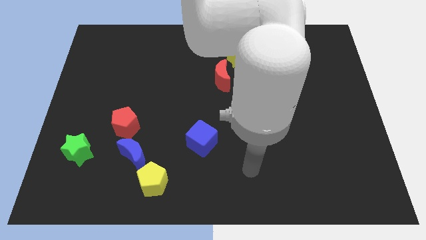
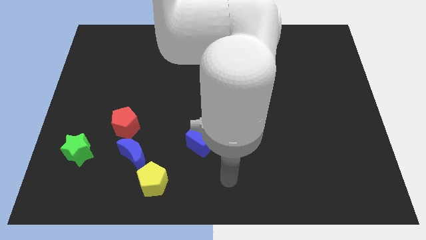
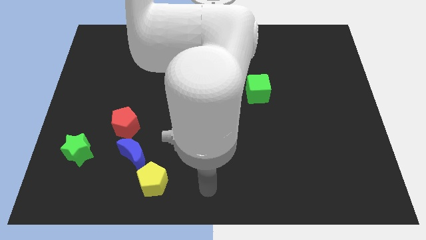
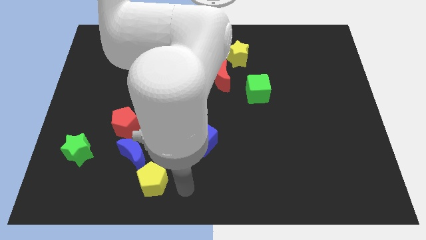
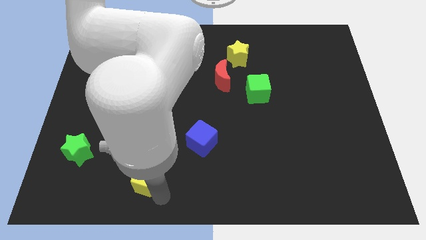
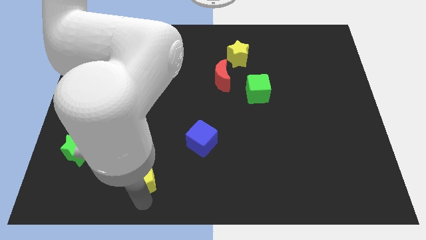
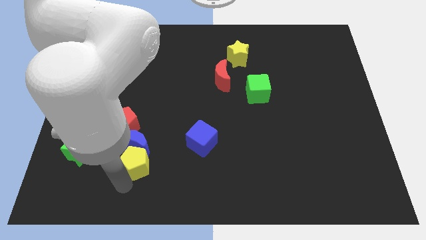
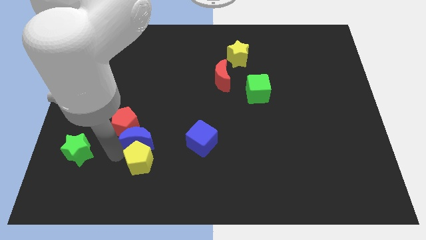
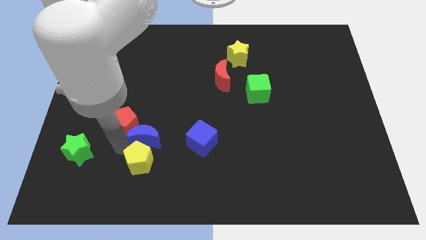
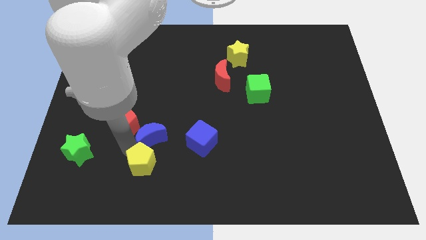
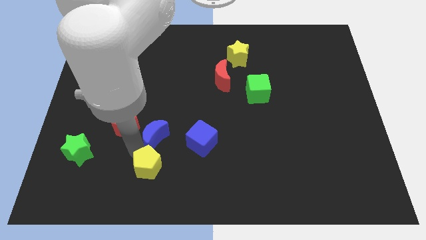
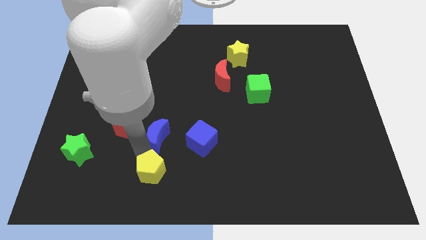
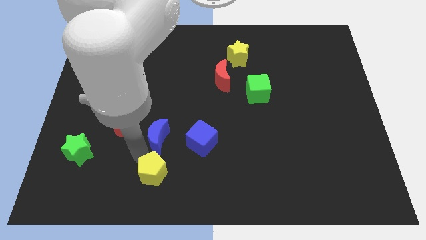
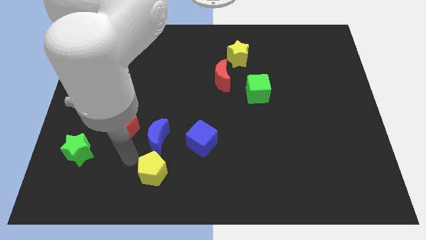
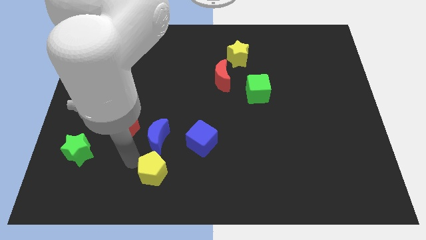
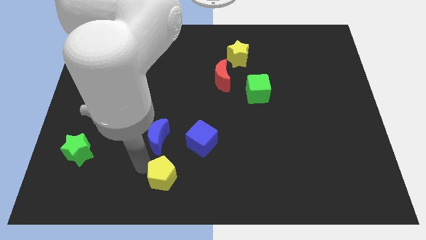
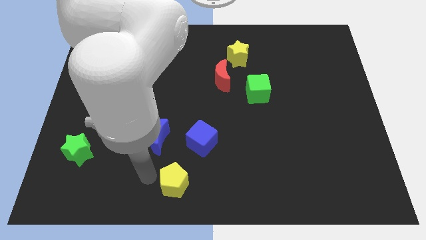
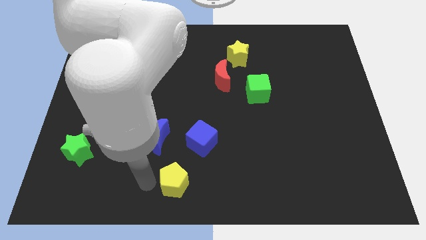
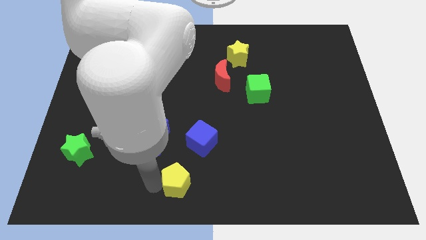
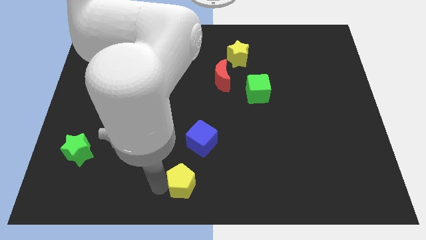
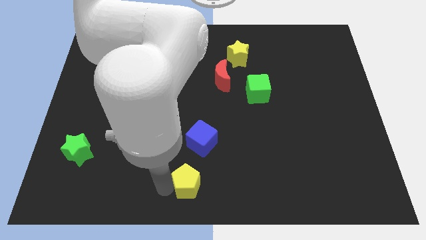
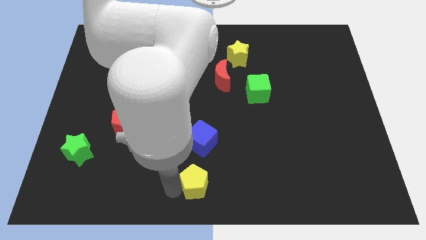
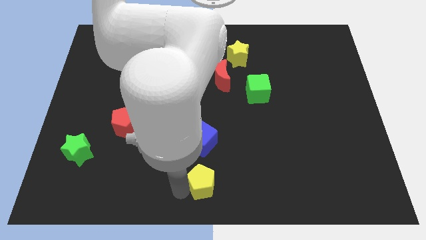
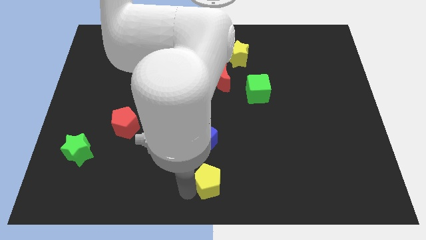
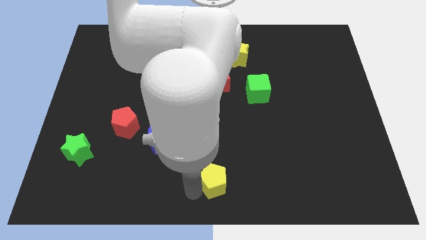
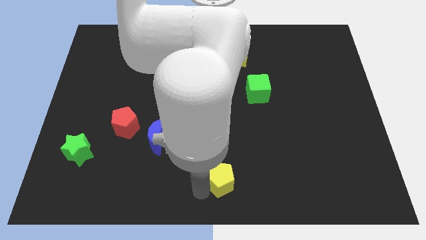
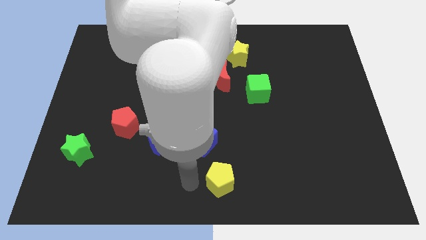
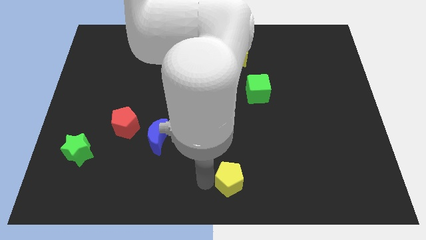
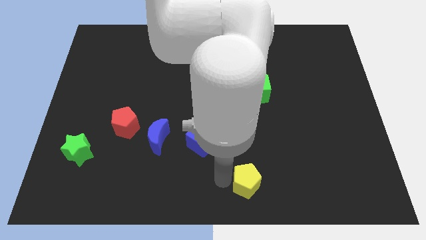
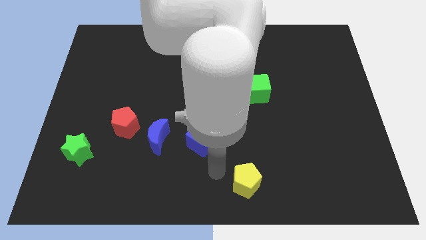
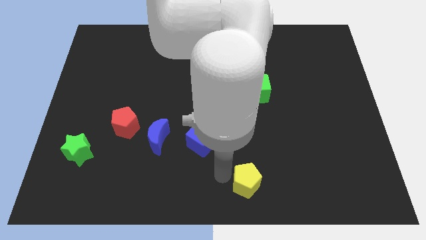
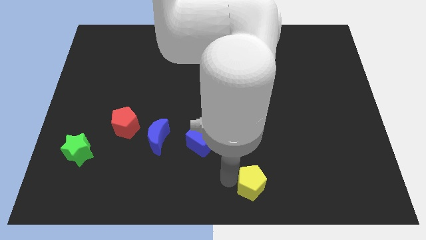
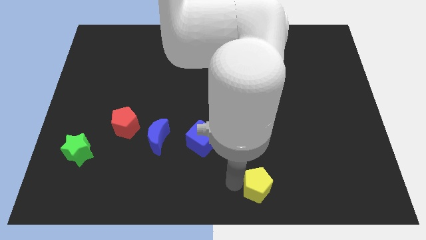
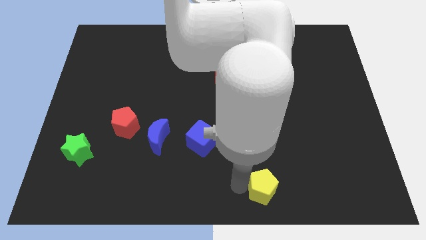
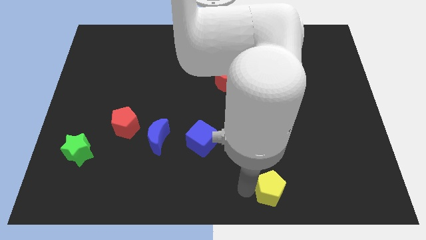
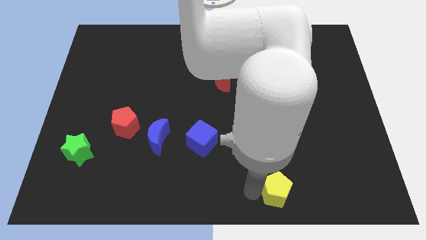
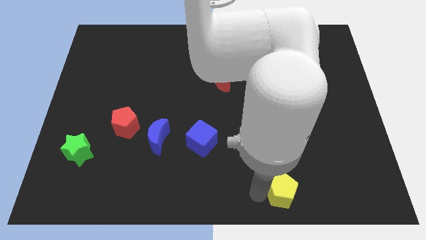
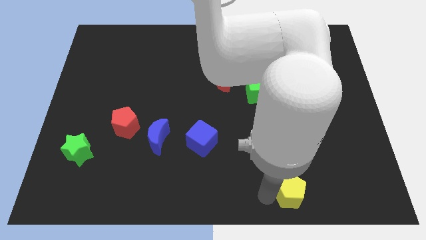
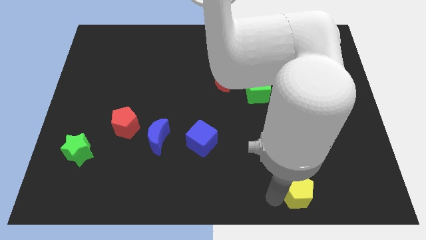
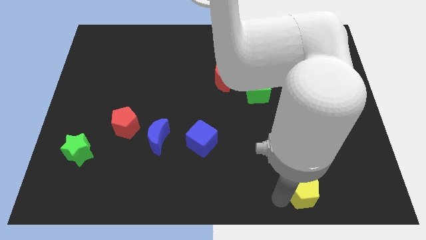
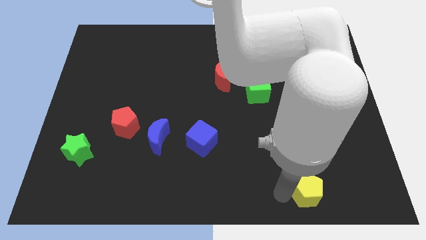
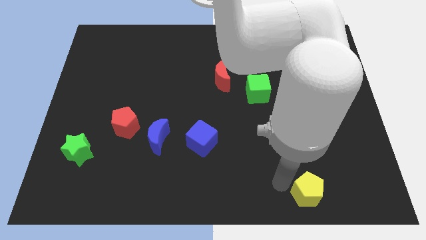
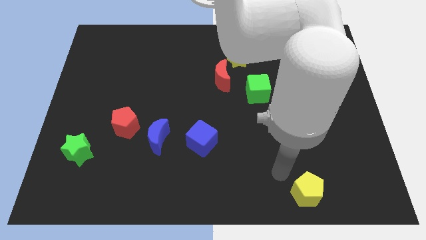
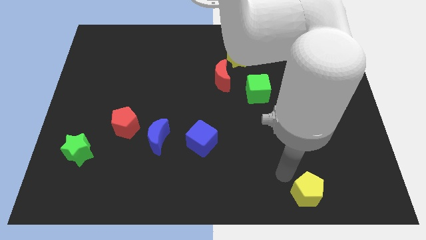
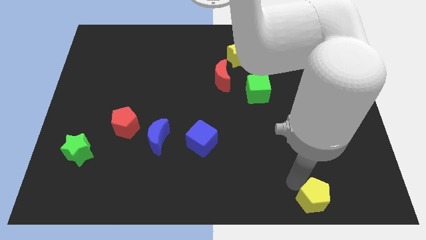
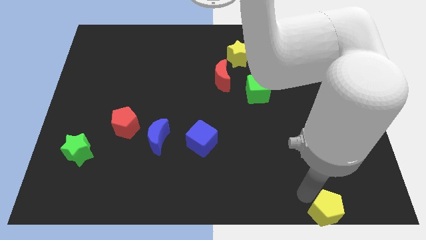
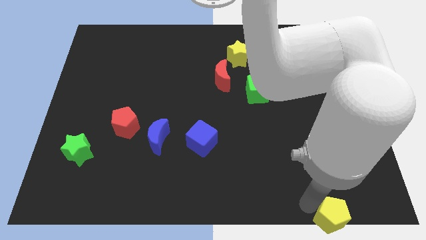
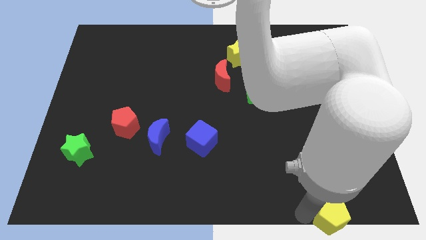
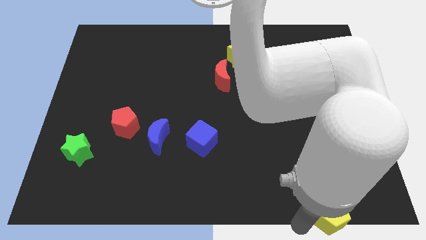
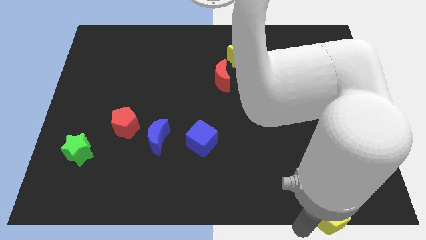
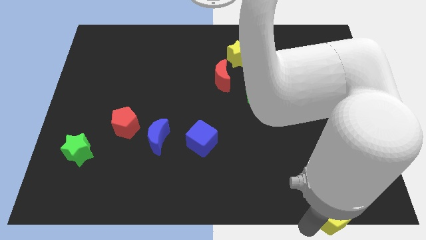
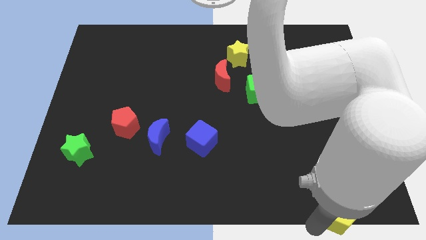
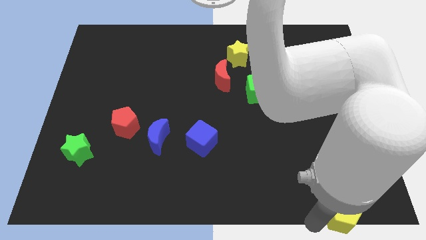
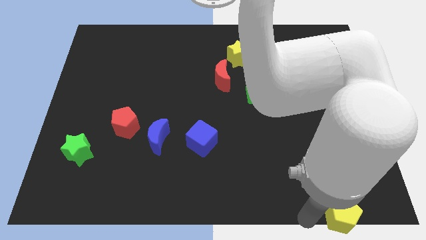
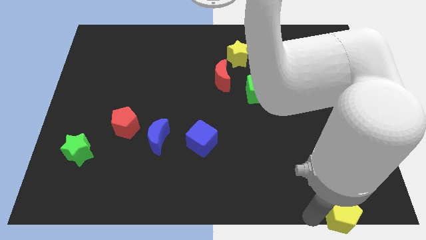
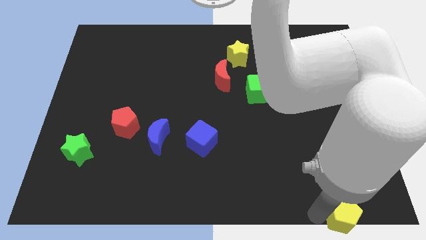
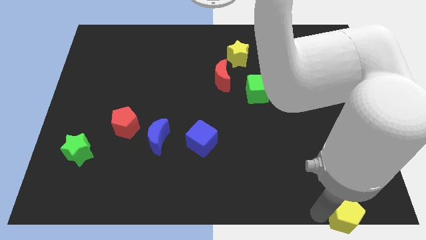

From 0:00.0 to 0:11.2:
push the yellow pentagon to the bottom right of the board

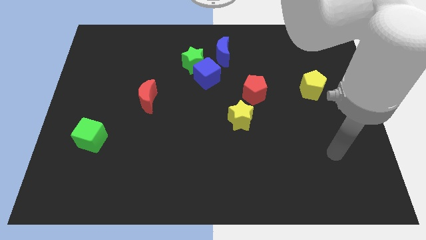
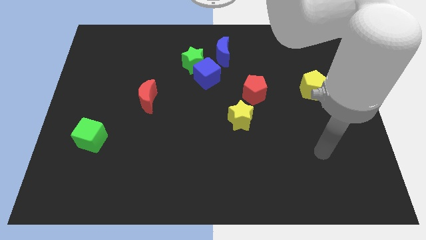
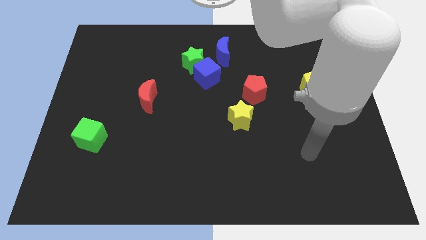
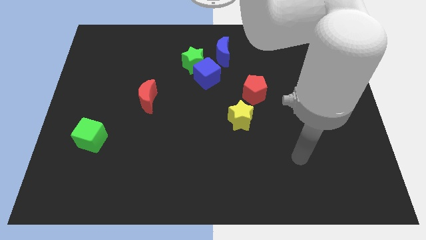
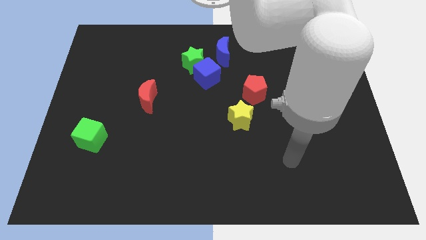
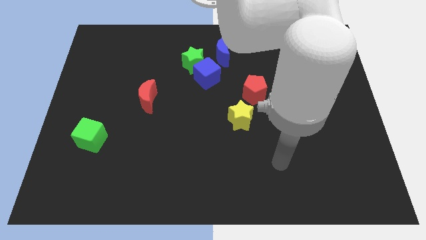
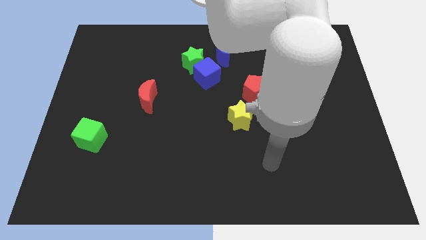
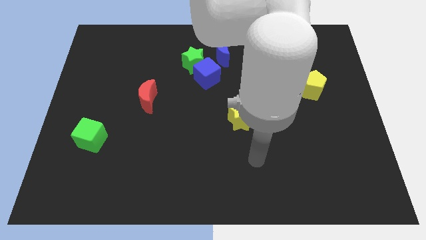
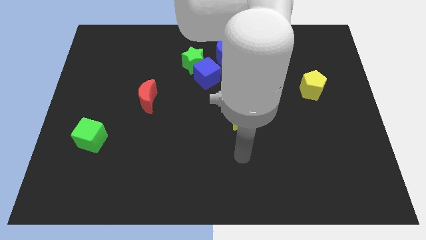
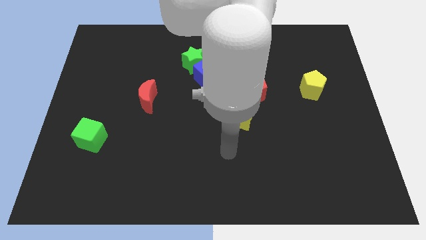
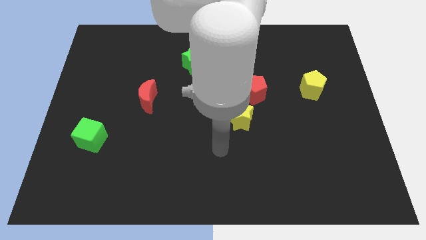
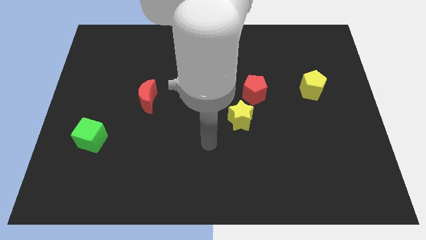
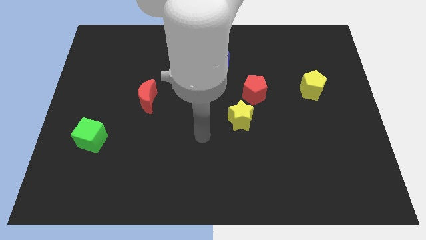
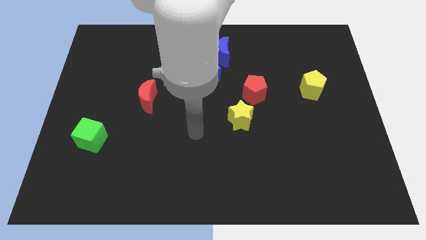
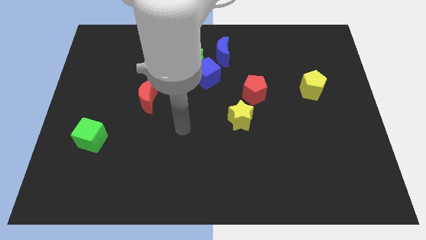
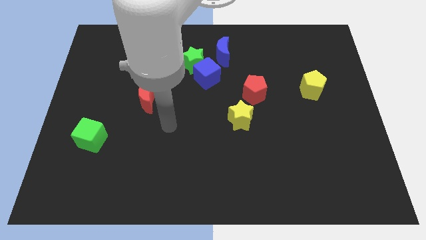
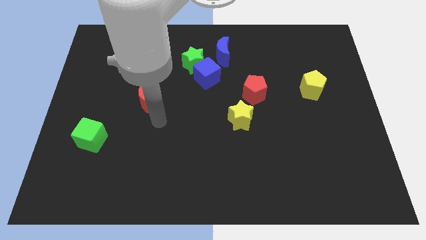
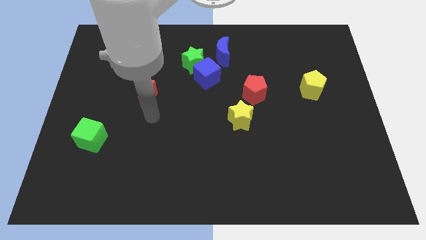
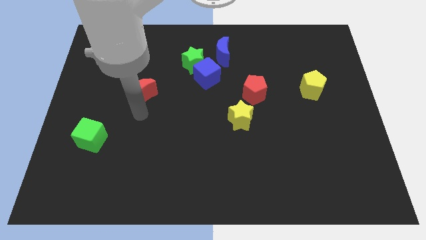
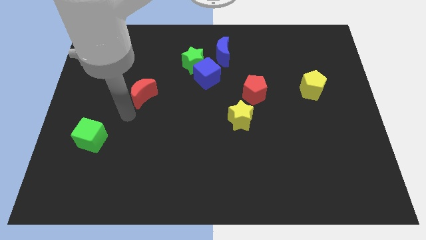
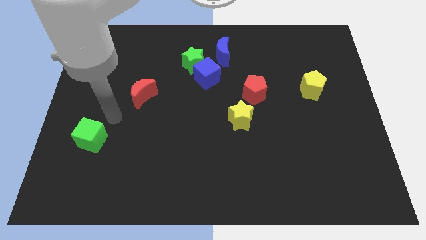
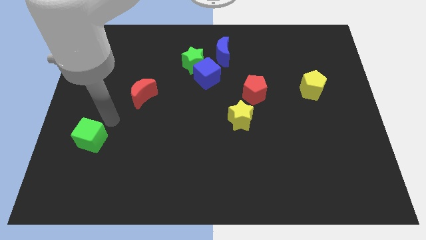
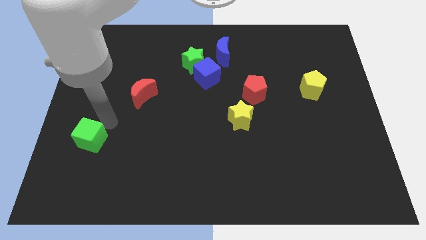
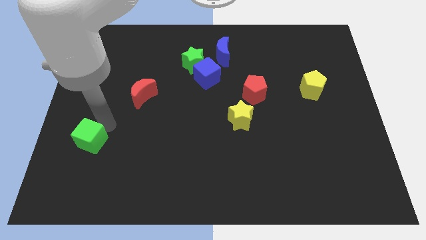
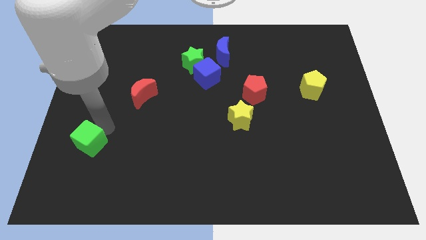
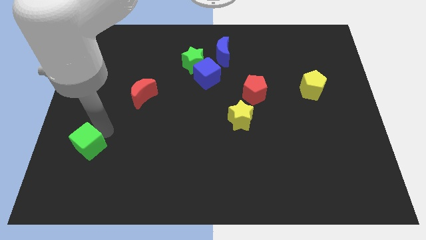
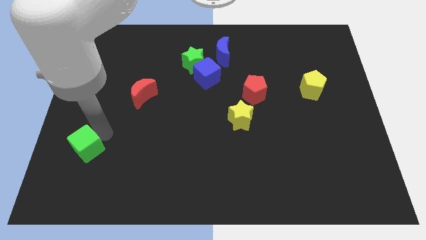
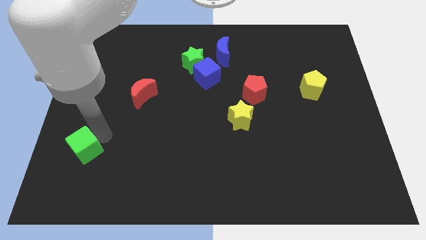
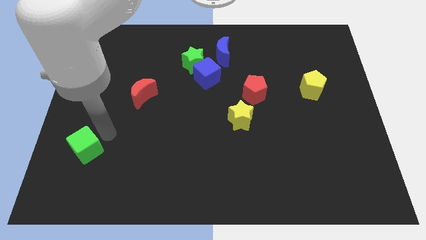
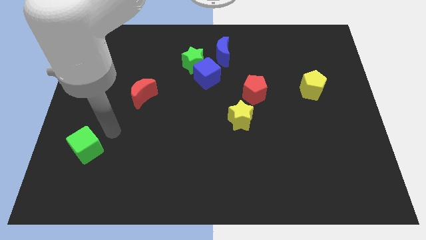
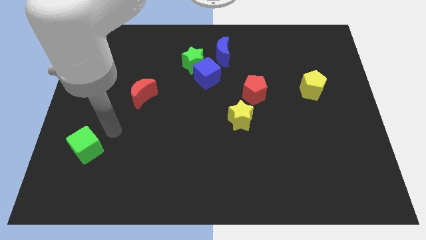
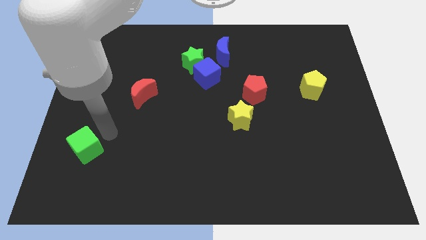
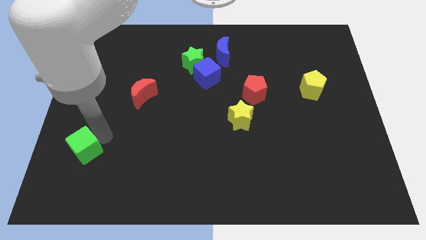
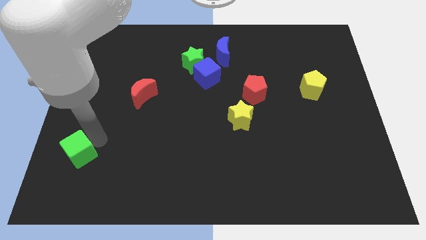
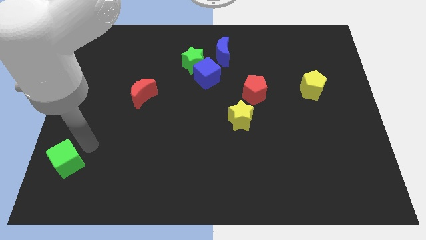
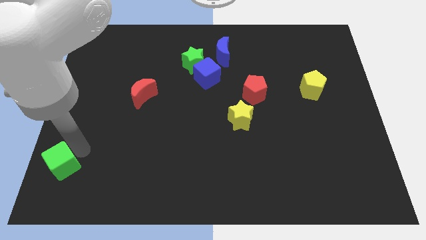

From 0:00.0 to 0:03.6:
move the green cube to the bottom left of the board
